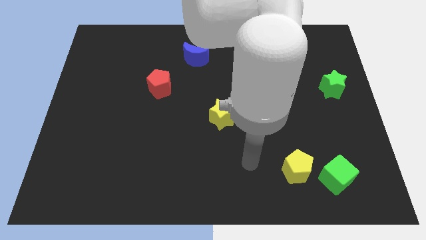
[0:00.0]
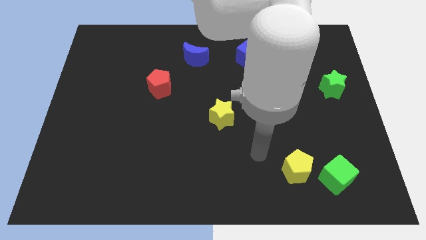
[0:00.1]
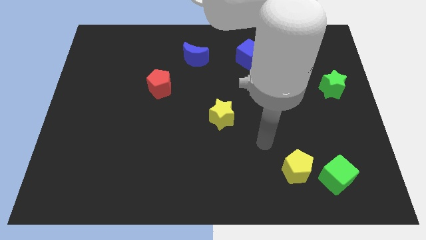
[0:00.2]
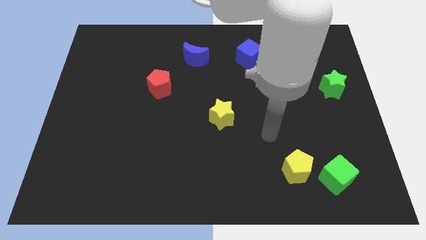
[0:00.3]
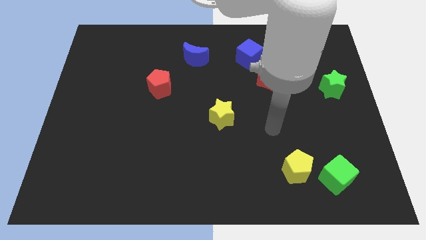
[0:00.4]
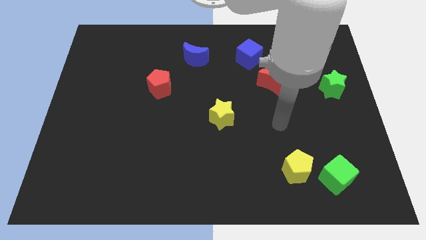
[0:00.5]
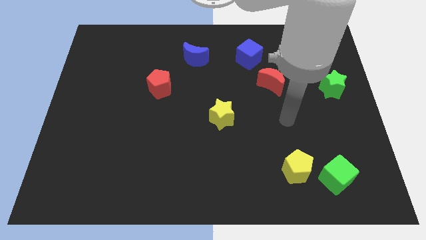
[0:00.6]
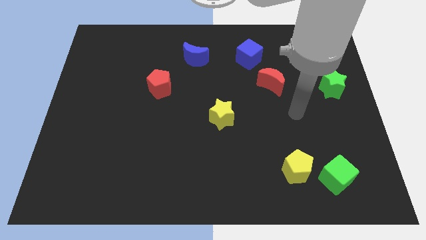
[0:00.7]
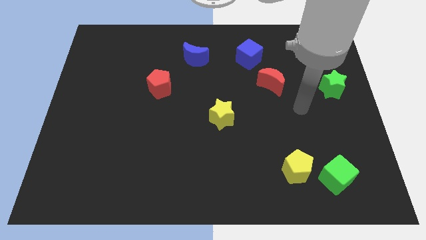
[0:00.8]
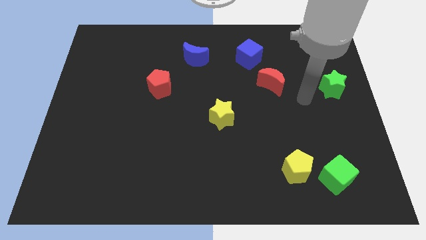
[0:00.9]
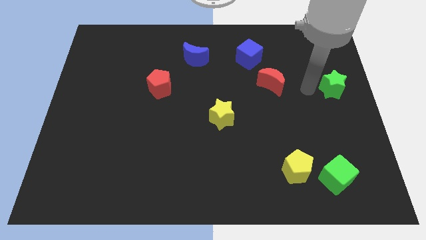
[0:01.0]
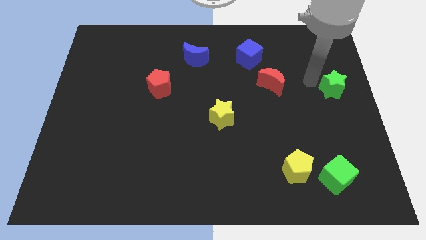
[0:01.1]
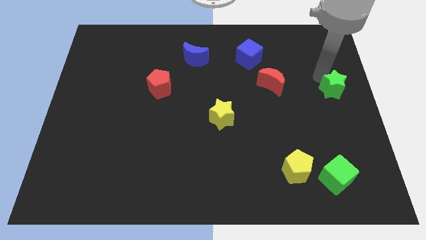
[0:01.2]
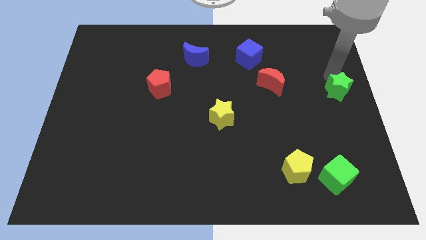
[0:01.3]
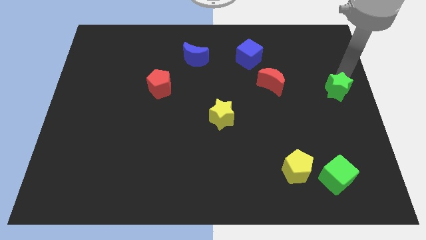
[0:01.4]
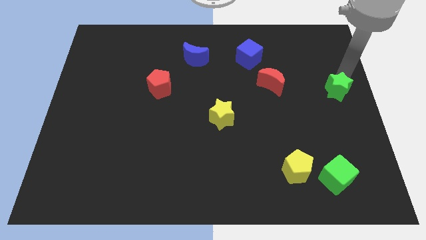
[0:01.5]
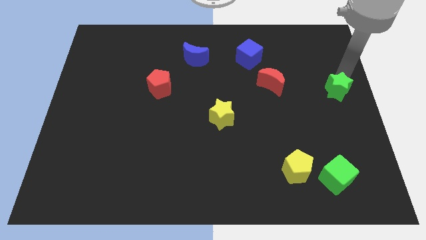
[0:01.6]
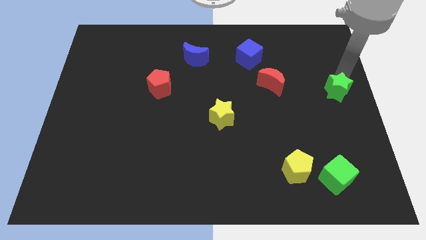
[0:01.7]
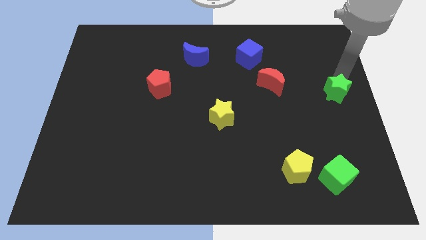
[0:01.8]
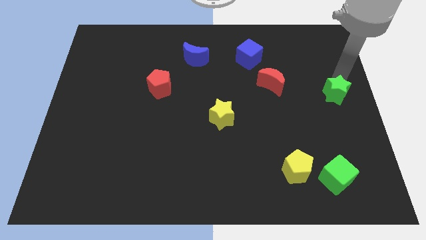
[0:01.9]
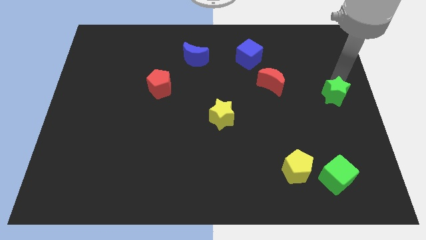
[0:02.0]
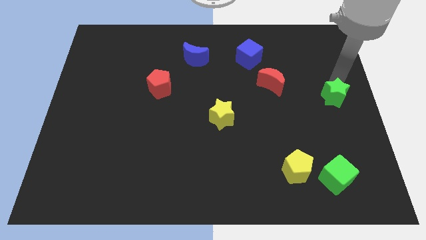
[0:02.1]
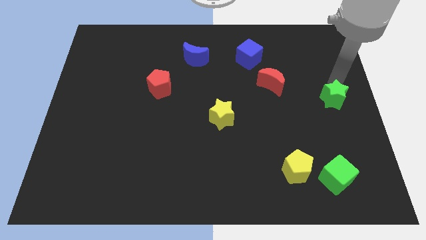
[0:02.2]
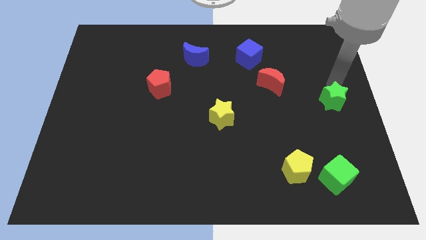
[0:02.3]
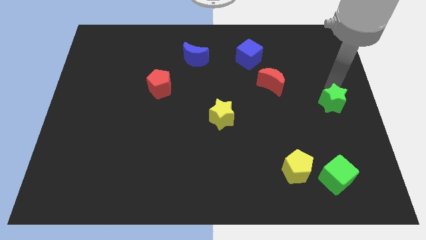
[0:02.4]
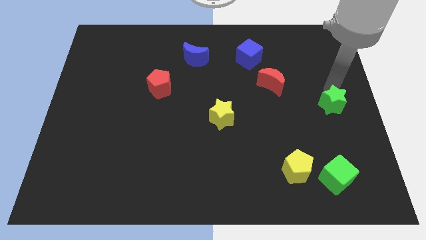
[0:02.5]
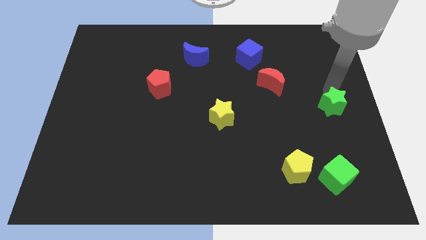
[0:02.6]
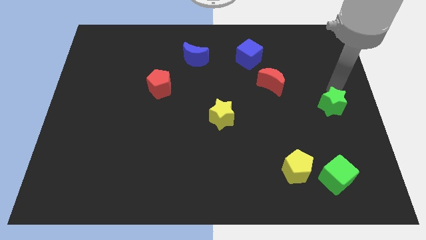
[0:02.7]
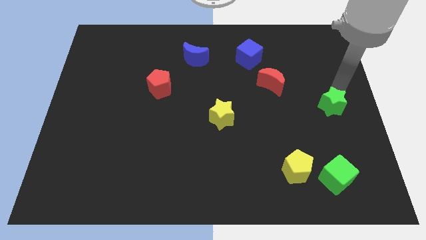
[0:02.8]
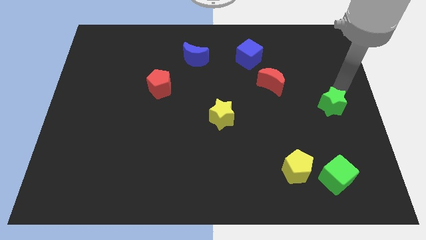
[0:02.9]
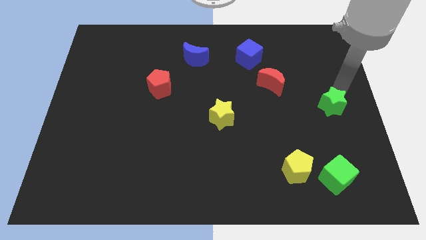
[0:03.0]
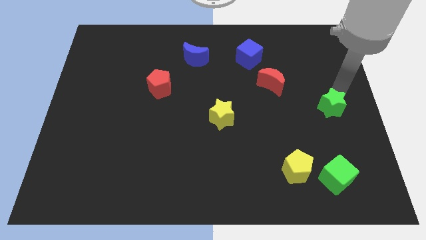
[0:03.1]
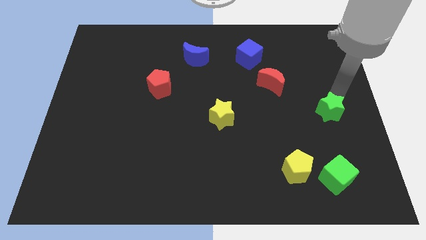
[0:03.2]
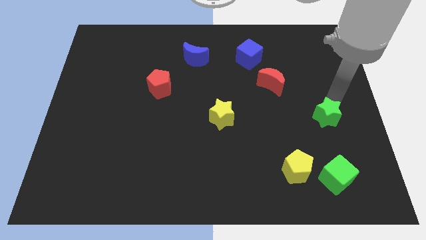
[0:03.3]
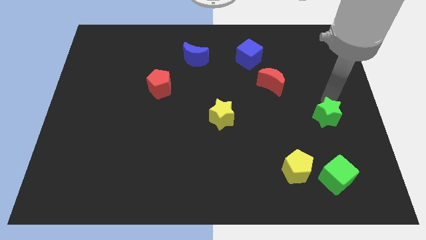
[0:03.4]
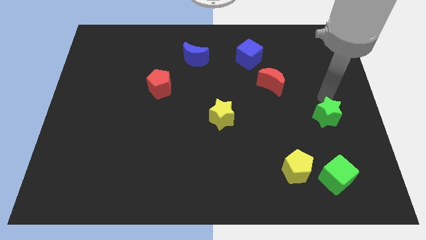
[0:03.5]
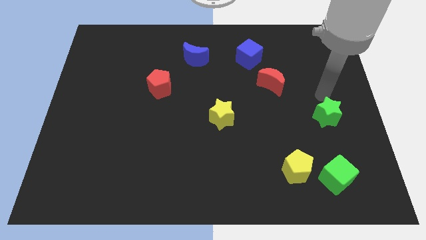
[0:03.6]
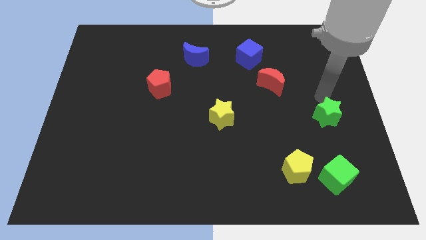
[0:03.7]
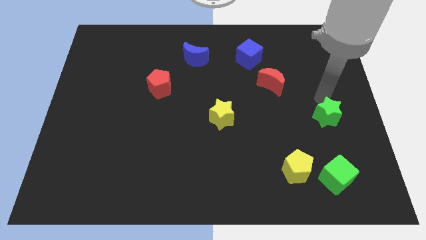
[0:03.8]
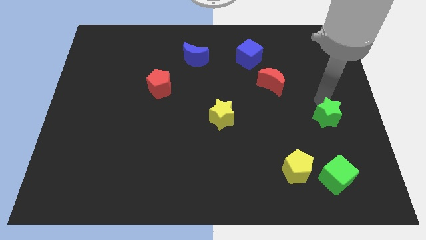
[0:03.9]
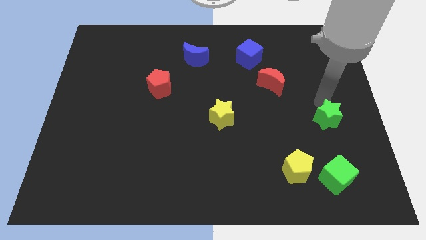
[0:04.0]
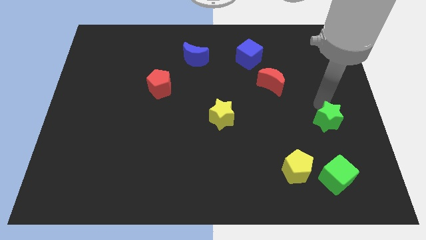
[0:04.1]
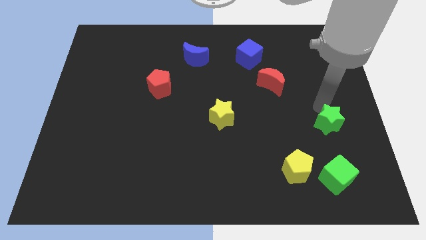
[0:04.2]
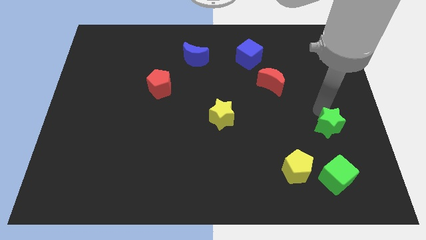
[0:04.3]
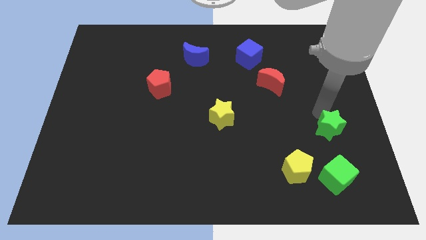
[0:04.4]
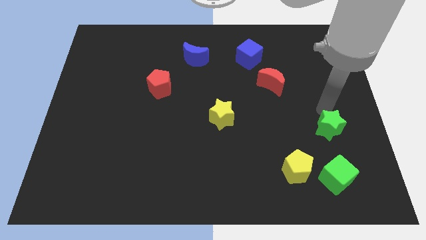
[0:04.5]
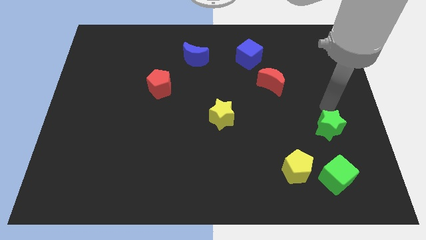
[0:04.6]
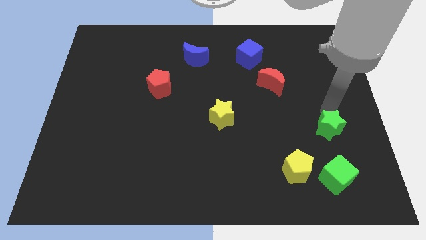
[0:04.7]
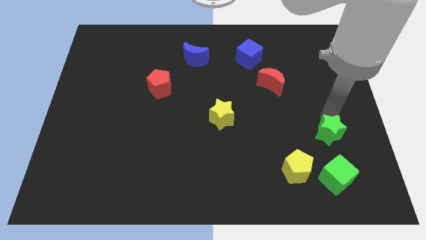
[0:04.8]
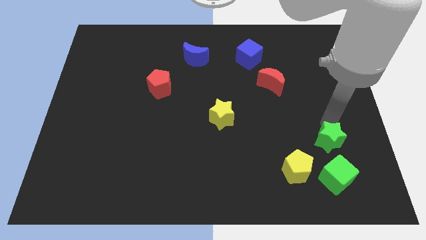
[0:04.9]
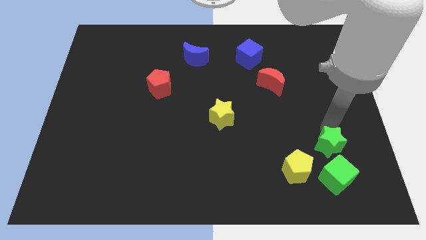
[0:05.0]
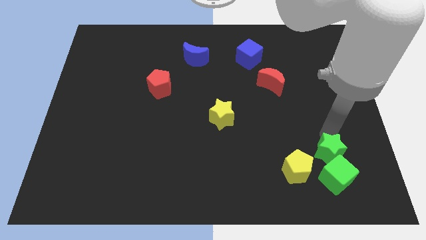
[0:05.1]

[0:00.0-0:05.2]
slide the green star next to the green cube

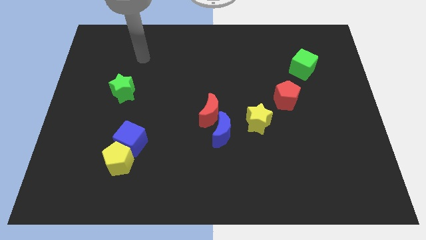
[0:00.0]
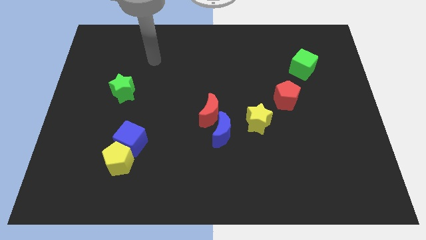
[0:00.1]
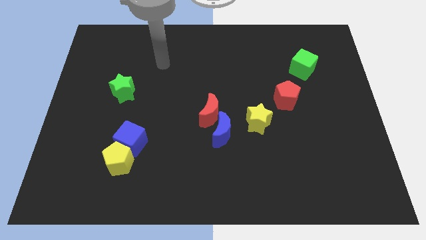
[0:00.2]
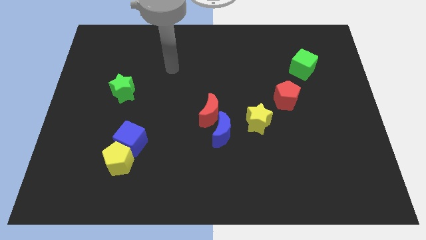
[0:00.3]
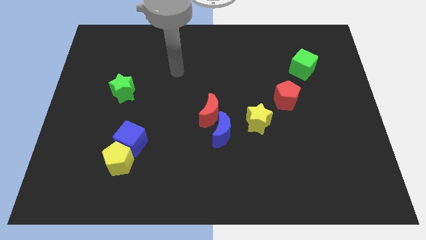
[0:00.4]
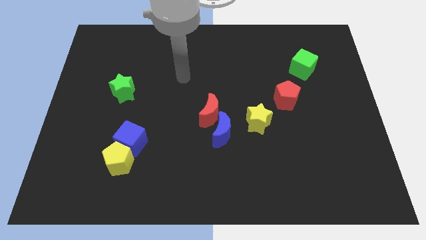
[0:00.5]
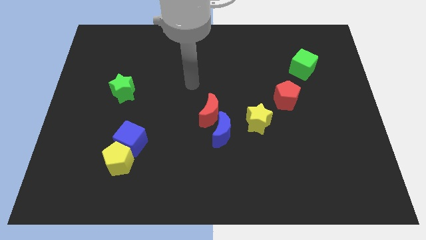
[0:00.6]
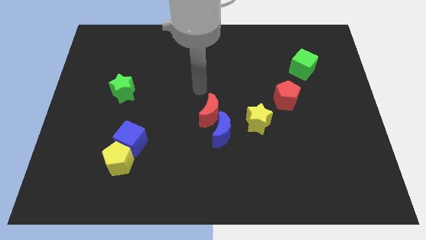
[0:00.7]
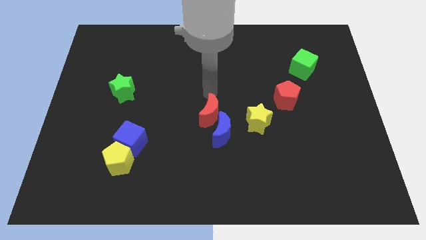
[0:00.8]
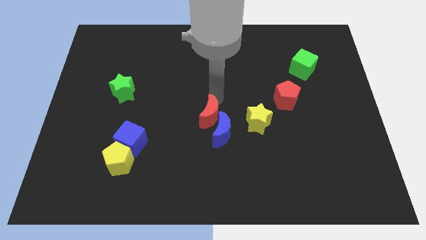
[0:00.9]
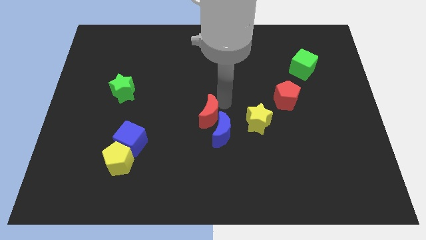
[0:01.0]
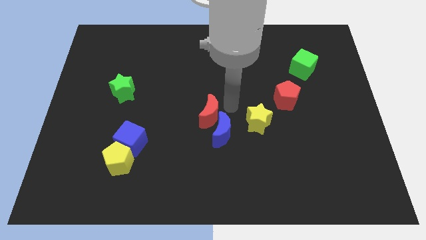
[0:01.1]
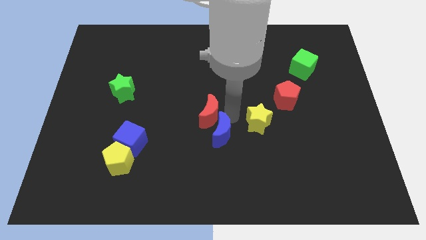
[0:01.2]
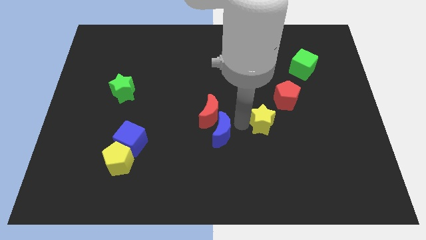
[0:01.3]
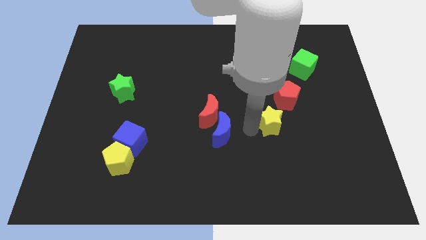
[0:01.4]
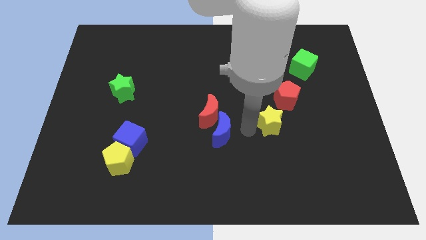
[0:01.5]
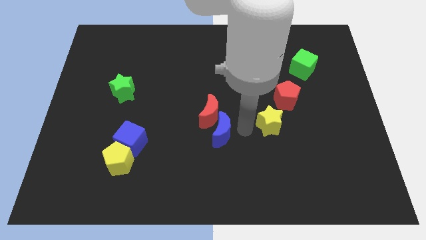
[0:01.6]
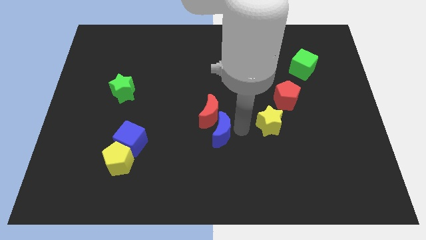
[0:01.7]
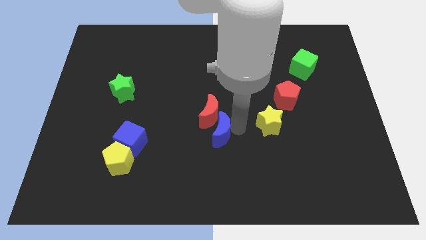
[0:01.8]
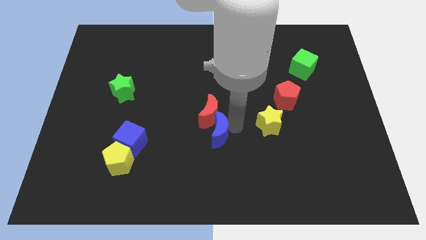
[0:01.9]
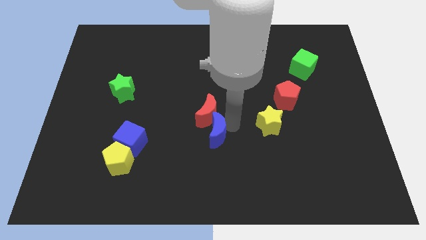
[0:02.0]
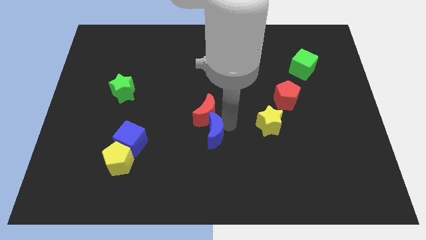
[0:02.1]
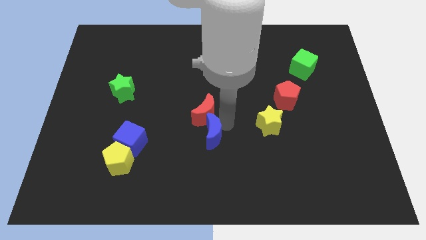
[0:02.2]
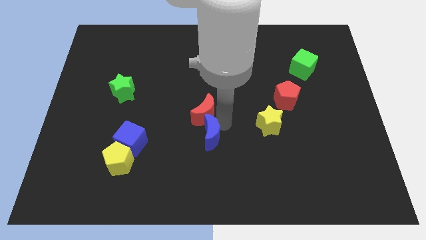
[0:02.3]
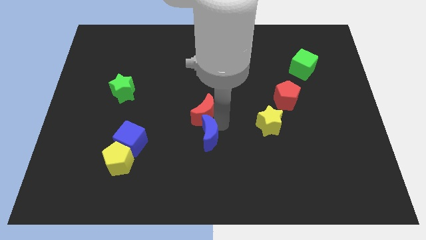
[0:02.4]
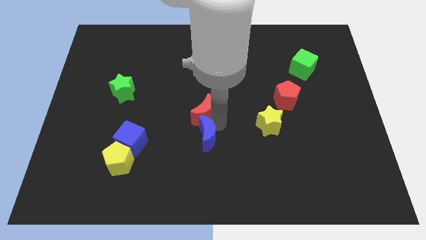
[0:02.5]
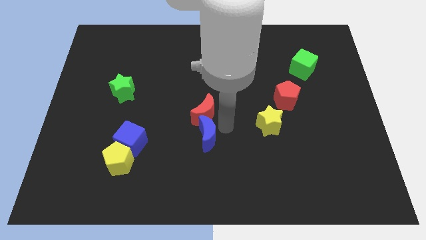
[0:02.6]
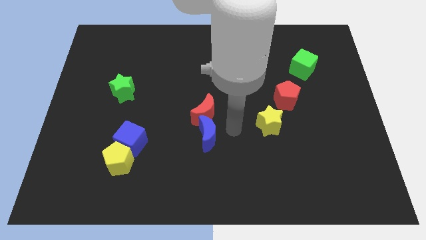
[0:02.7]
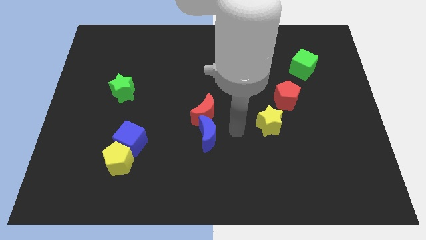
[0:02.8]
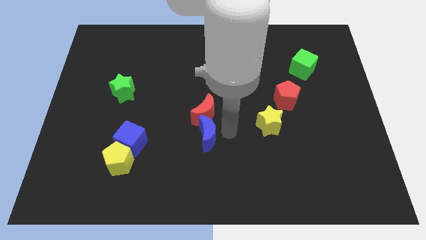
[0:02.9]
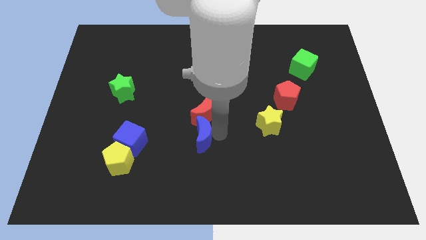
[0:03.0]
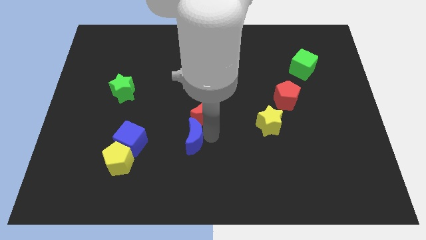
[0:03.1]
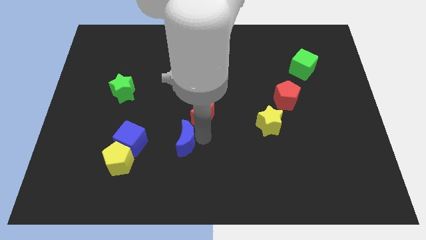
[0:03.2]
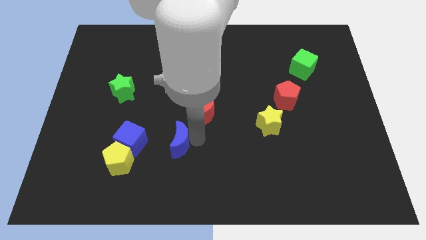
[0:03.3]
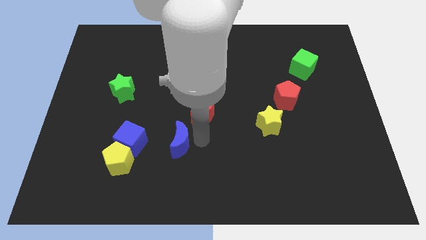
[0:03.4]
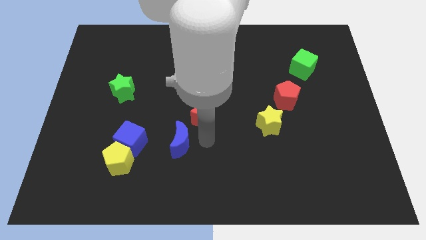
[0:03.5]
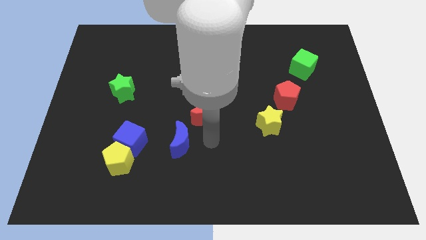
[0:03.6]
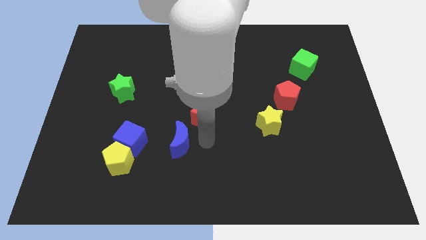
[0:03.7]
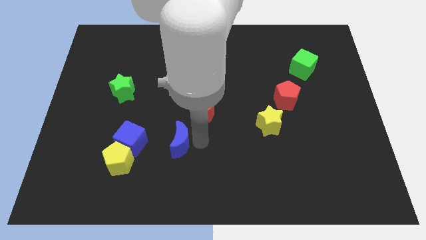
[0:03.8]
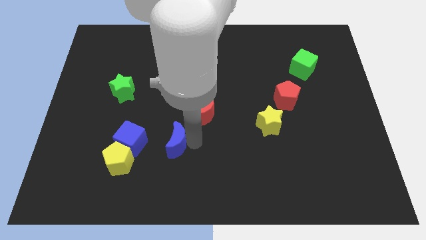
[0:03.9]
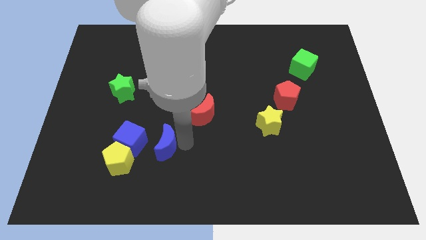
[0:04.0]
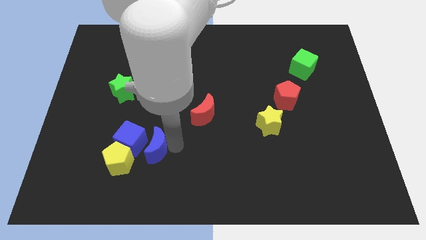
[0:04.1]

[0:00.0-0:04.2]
push the blue moon close to the blue cube
